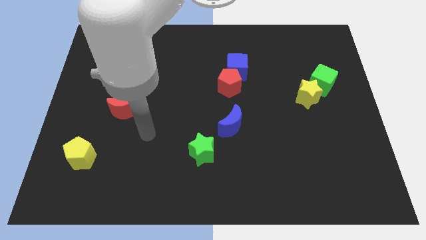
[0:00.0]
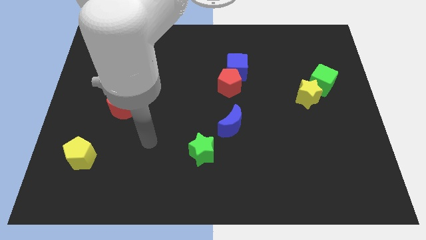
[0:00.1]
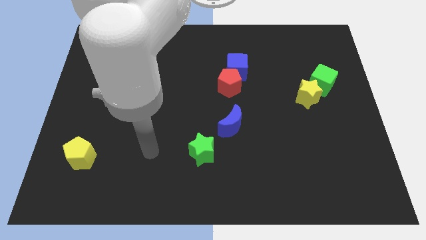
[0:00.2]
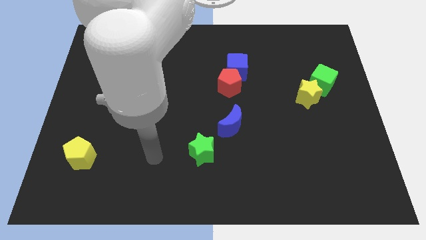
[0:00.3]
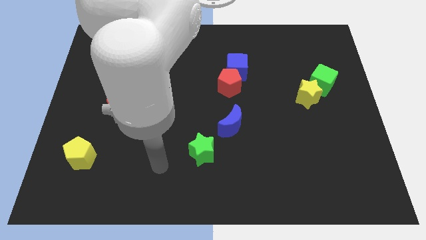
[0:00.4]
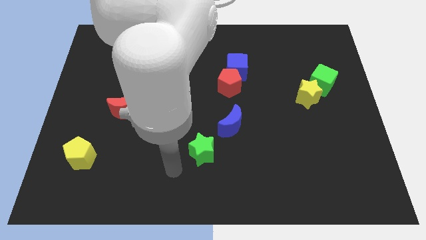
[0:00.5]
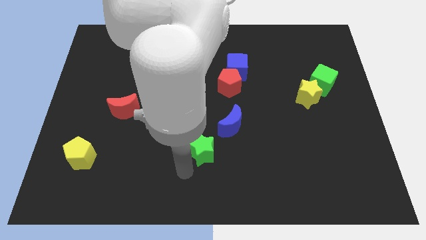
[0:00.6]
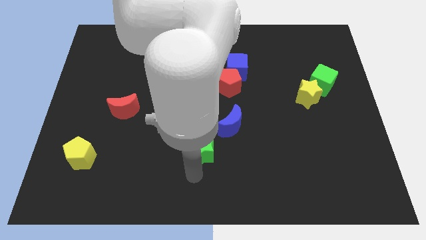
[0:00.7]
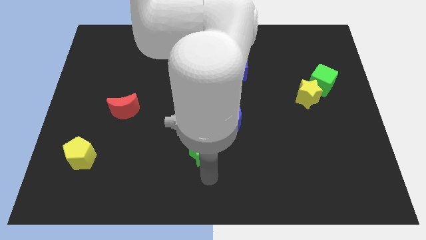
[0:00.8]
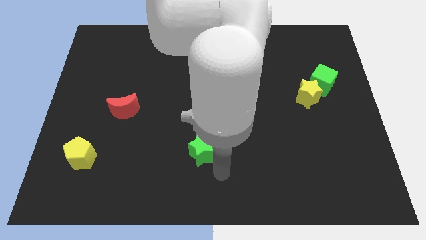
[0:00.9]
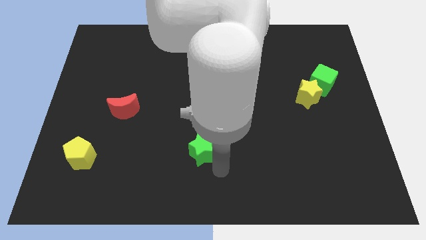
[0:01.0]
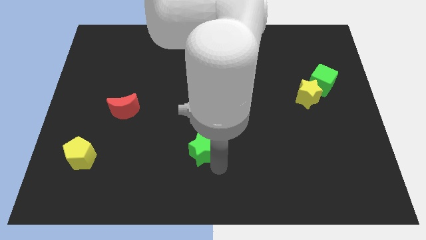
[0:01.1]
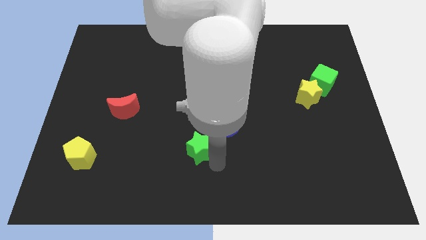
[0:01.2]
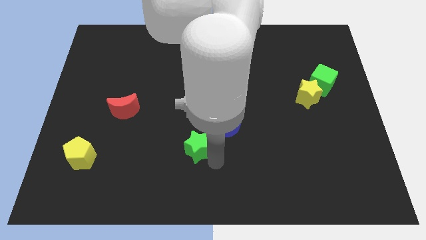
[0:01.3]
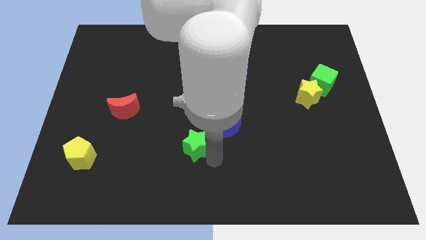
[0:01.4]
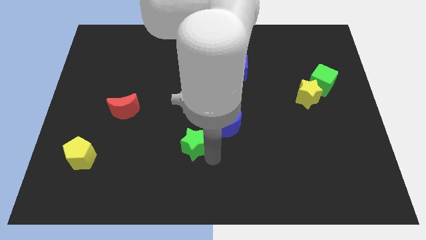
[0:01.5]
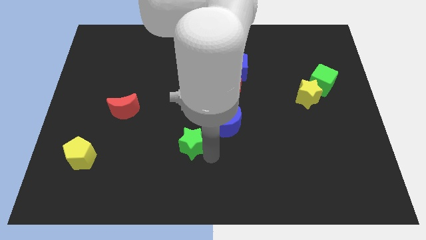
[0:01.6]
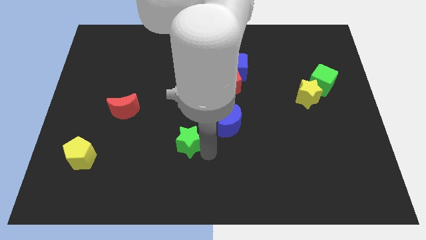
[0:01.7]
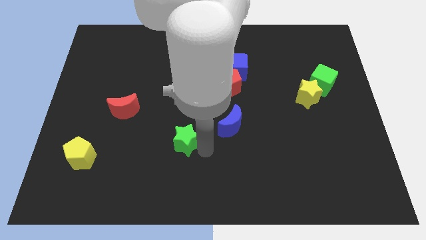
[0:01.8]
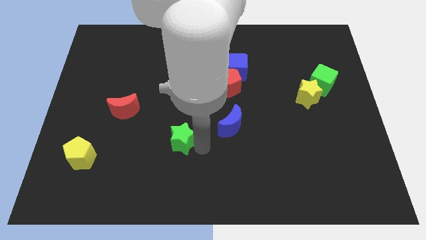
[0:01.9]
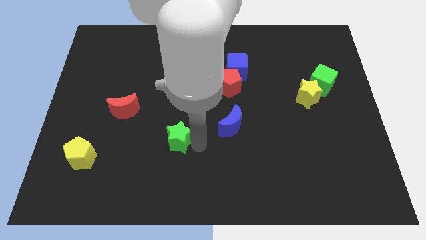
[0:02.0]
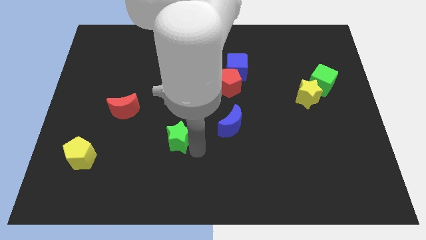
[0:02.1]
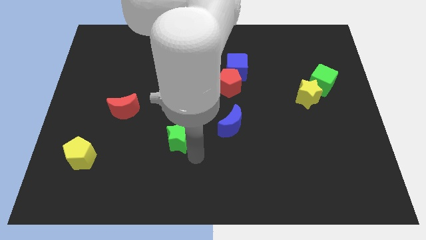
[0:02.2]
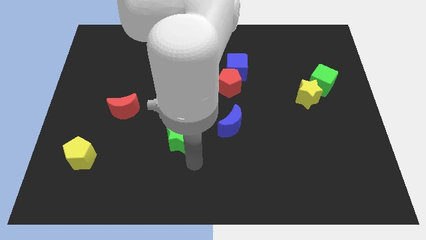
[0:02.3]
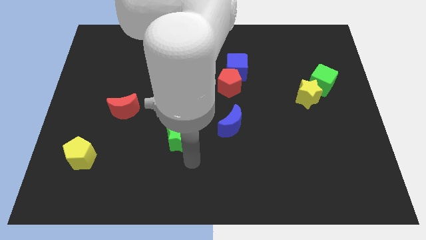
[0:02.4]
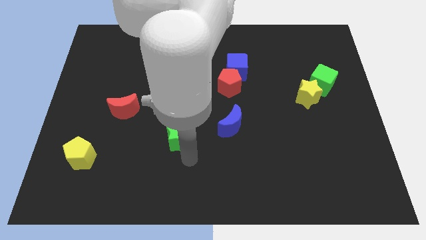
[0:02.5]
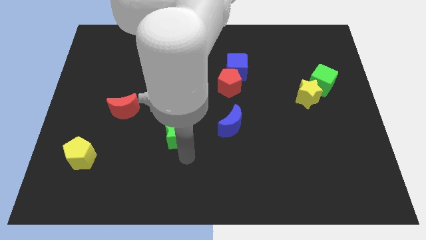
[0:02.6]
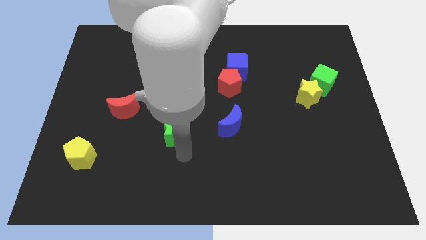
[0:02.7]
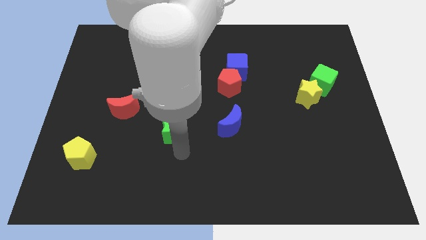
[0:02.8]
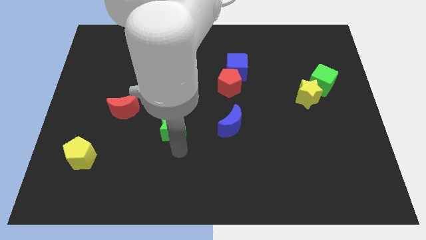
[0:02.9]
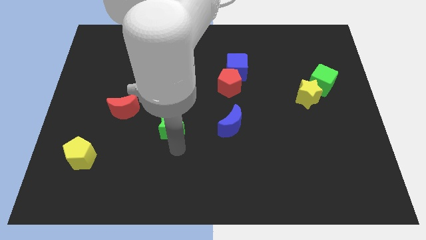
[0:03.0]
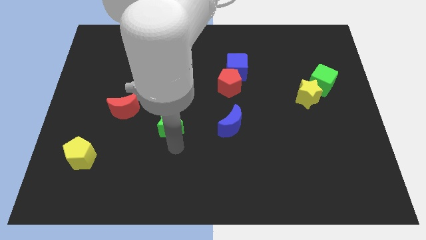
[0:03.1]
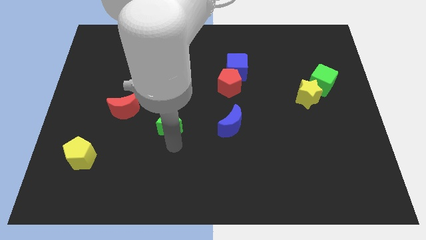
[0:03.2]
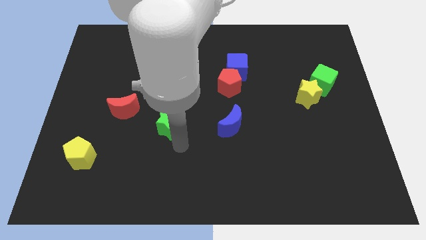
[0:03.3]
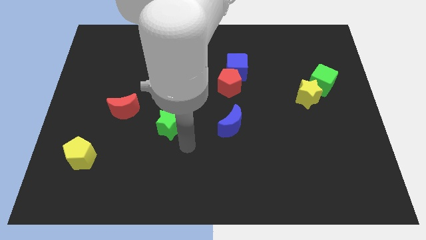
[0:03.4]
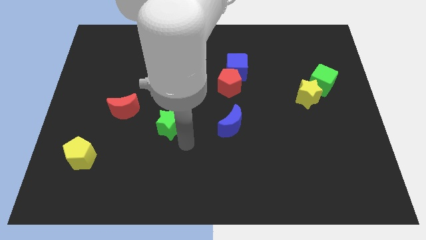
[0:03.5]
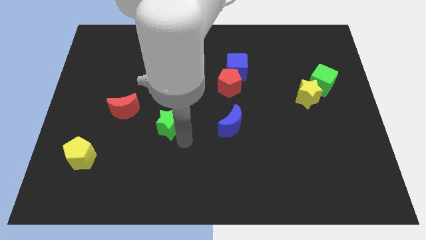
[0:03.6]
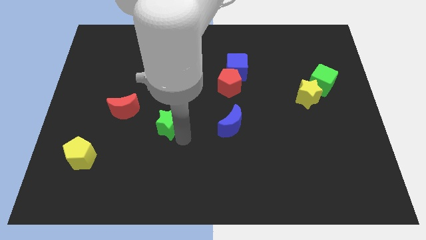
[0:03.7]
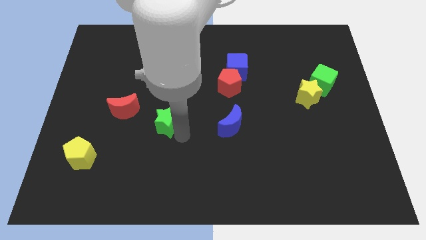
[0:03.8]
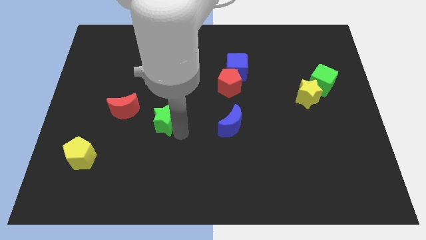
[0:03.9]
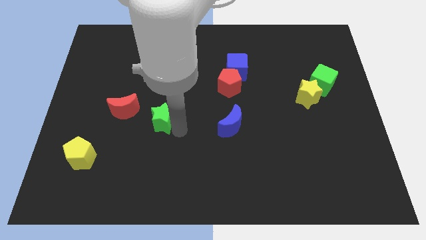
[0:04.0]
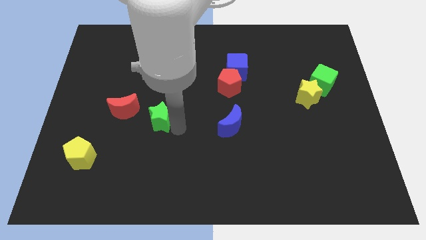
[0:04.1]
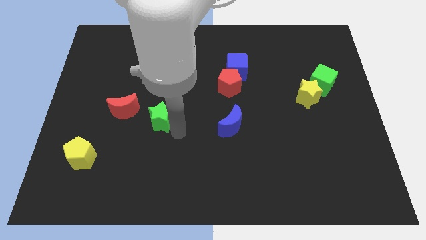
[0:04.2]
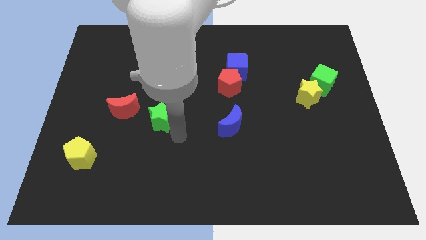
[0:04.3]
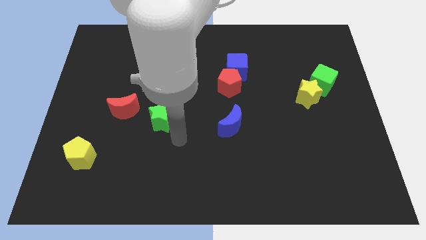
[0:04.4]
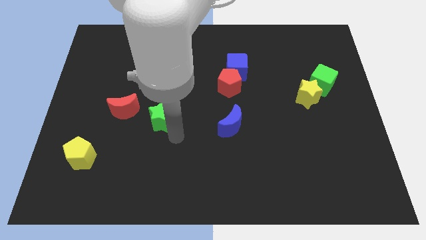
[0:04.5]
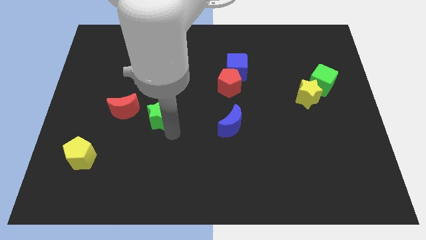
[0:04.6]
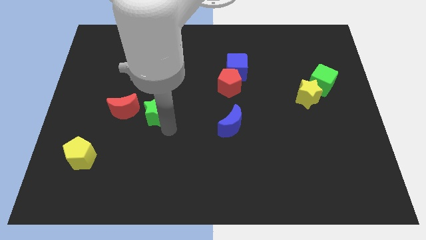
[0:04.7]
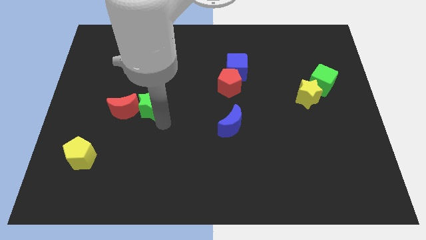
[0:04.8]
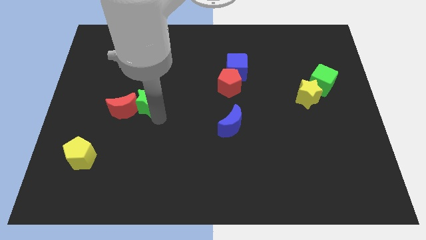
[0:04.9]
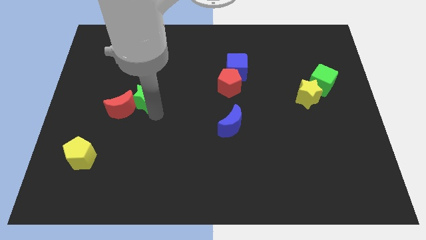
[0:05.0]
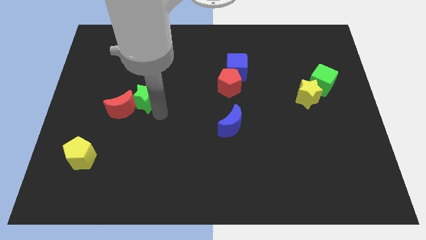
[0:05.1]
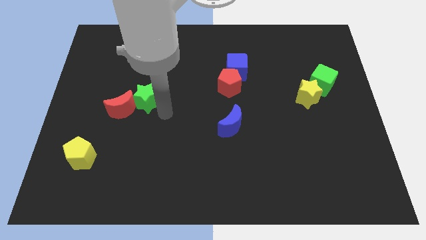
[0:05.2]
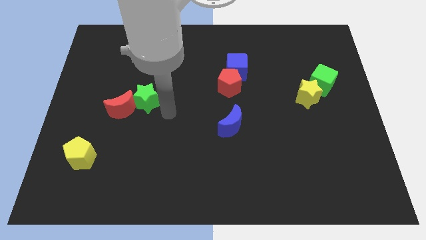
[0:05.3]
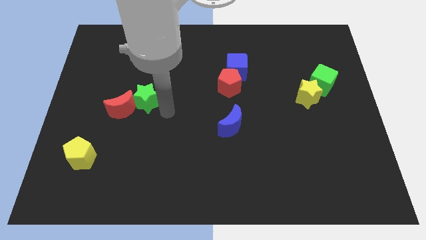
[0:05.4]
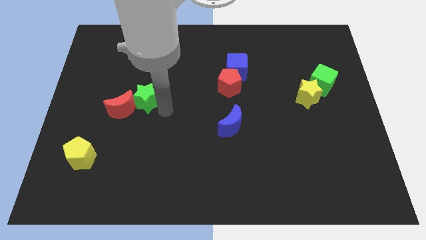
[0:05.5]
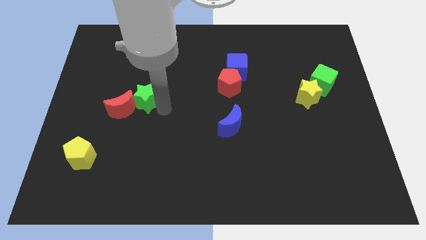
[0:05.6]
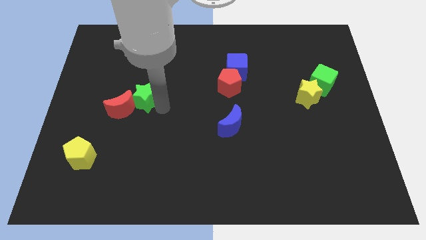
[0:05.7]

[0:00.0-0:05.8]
move the green star upwards and left

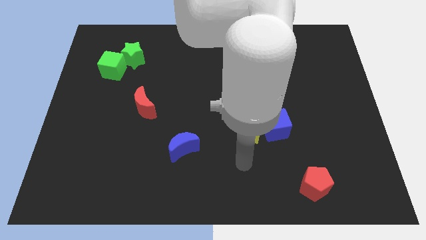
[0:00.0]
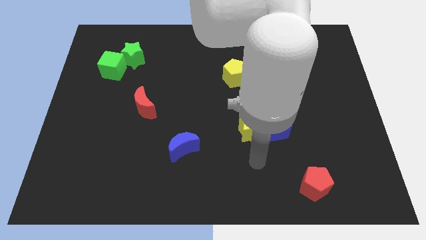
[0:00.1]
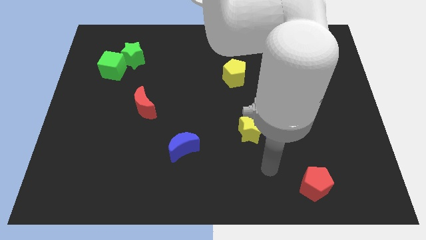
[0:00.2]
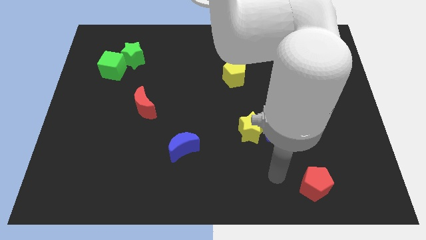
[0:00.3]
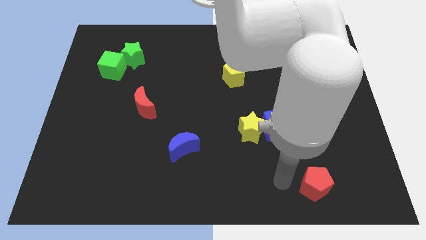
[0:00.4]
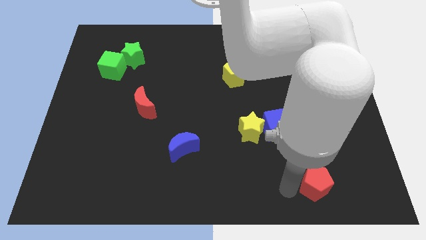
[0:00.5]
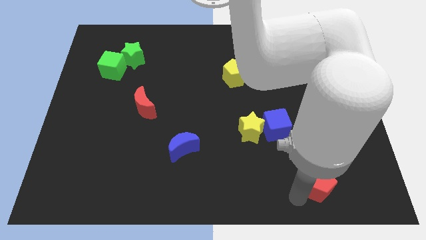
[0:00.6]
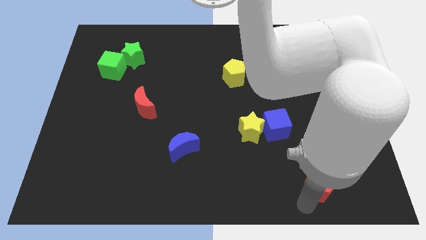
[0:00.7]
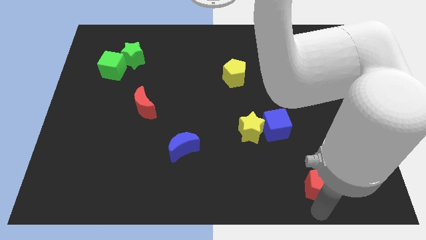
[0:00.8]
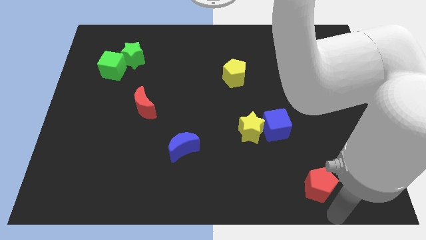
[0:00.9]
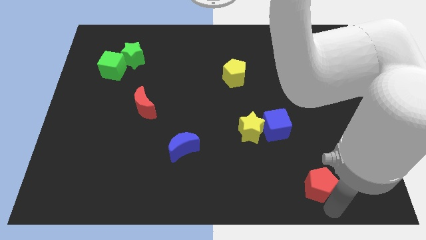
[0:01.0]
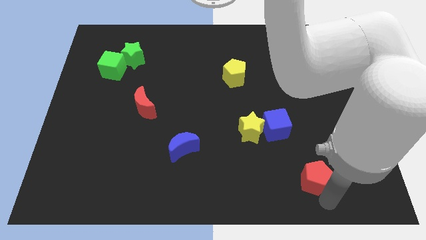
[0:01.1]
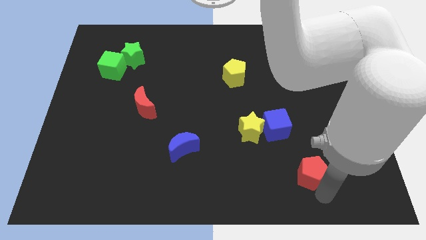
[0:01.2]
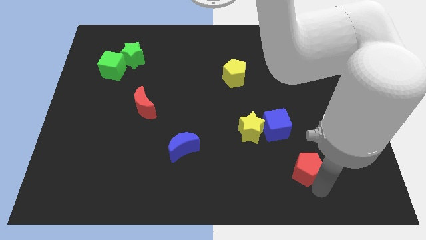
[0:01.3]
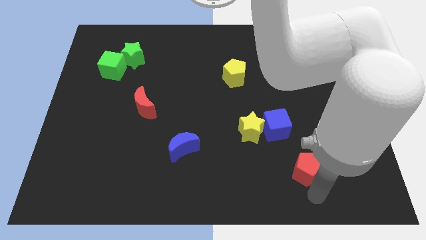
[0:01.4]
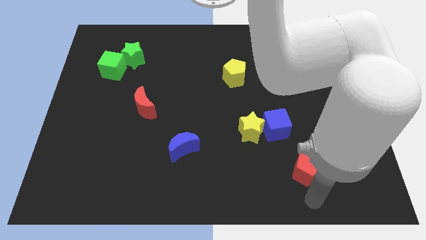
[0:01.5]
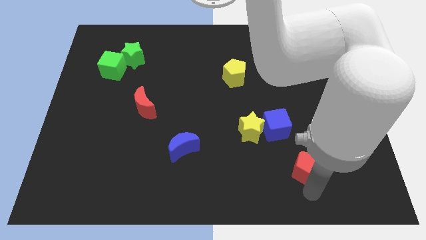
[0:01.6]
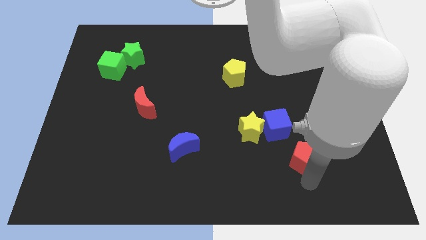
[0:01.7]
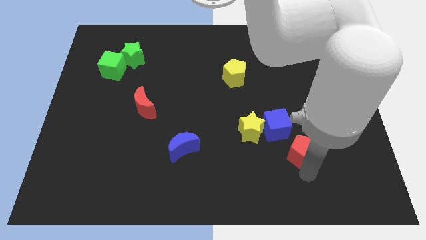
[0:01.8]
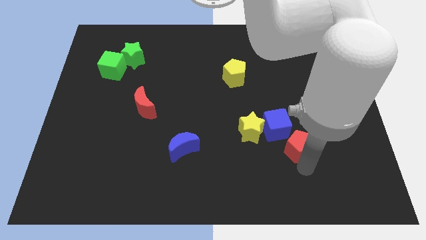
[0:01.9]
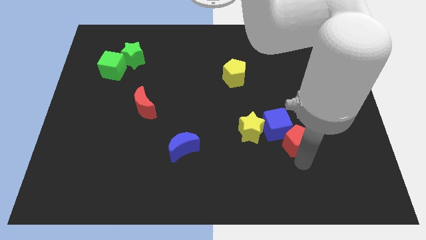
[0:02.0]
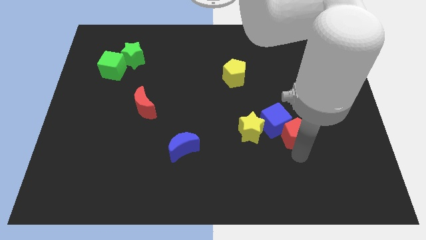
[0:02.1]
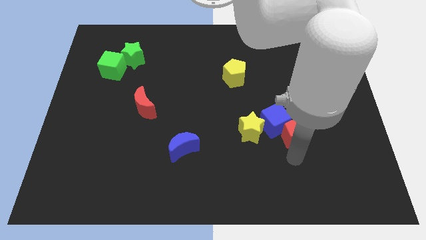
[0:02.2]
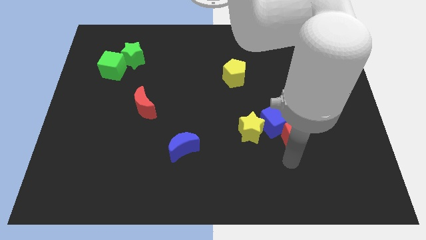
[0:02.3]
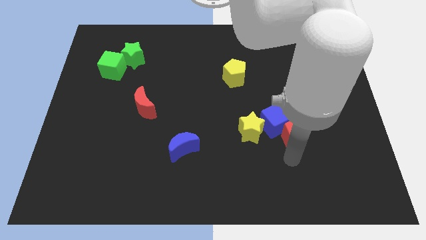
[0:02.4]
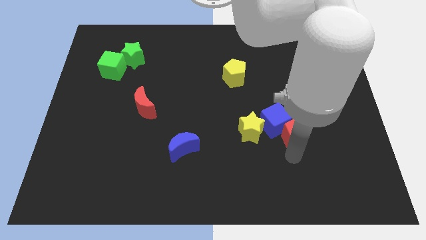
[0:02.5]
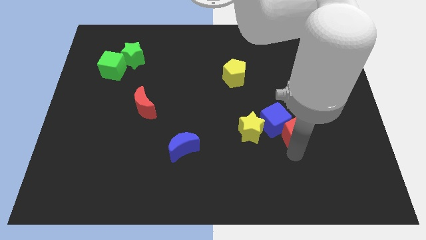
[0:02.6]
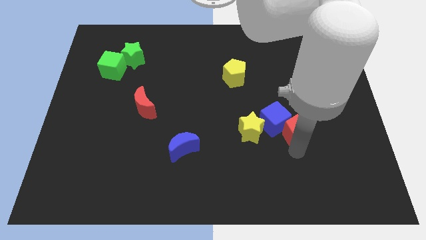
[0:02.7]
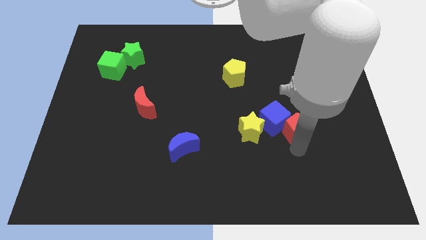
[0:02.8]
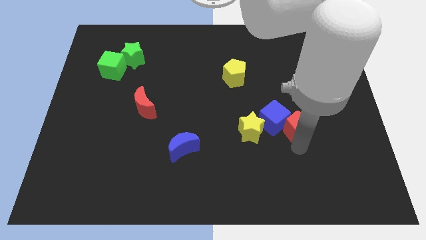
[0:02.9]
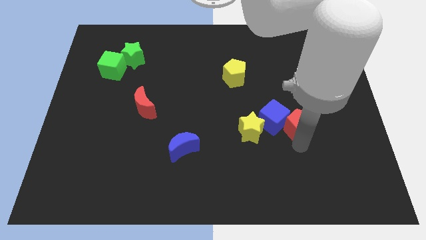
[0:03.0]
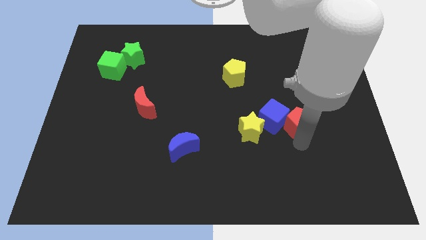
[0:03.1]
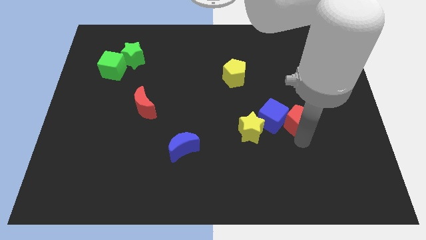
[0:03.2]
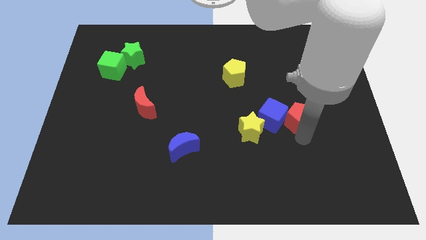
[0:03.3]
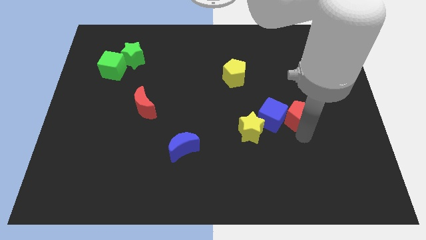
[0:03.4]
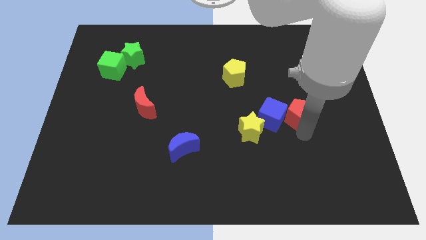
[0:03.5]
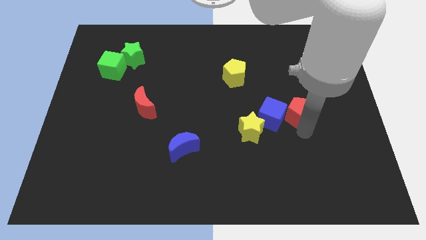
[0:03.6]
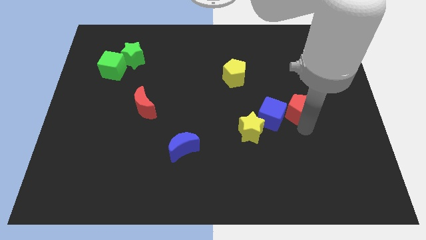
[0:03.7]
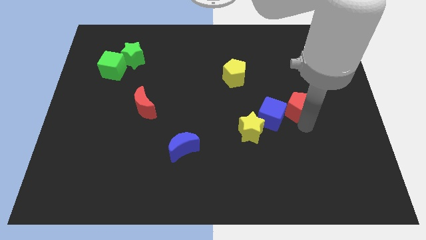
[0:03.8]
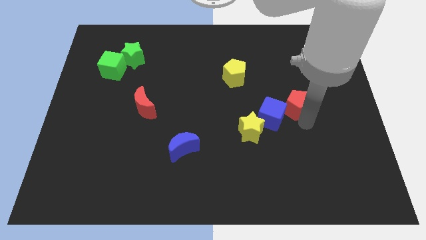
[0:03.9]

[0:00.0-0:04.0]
push the red pentagon up
